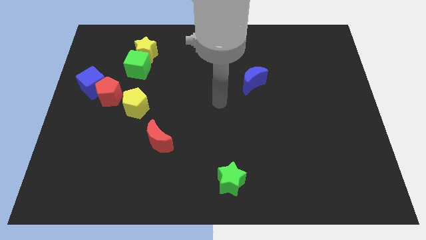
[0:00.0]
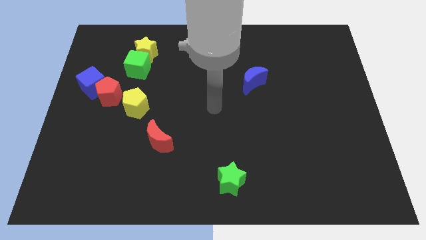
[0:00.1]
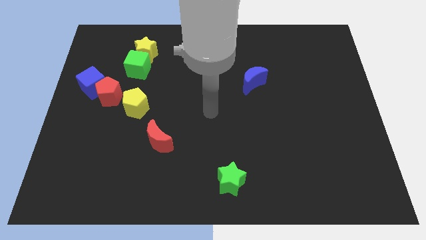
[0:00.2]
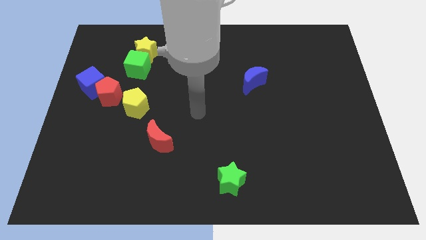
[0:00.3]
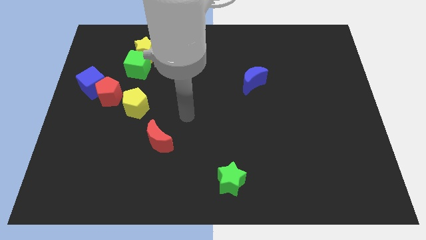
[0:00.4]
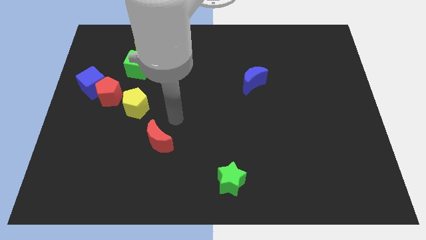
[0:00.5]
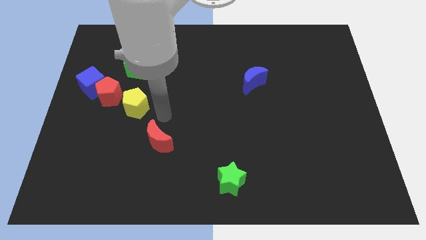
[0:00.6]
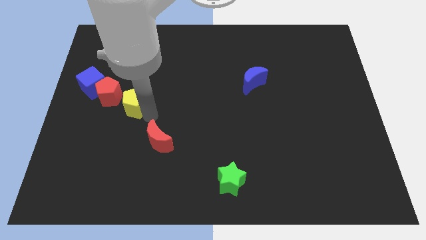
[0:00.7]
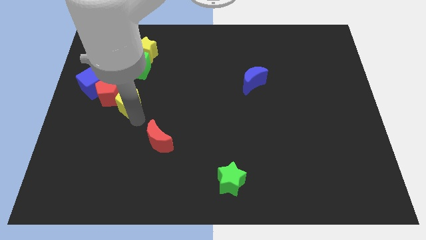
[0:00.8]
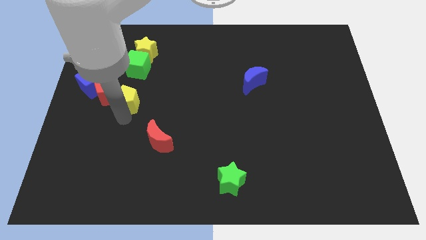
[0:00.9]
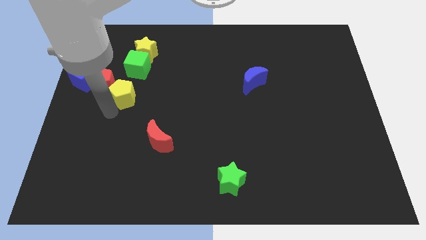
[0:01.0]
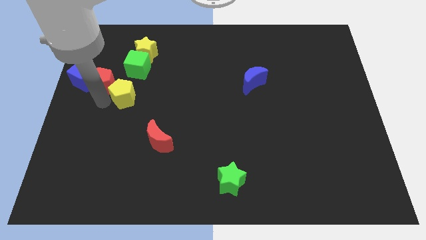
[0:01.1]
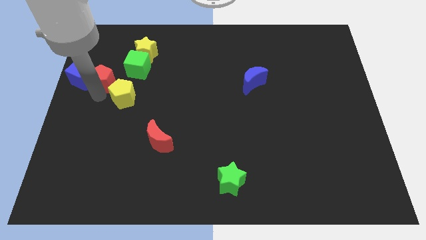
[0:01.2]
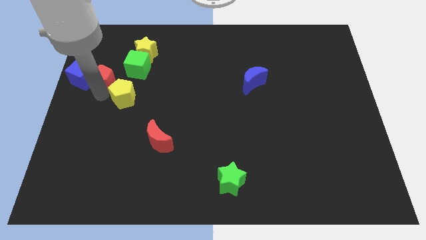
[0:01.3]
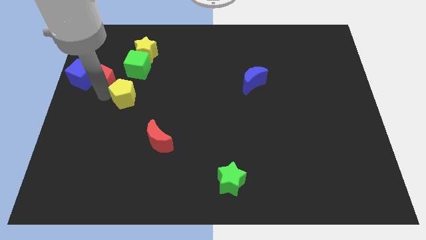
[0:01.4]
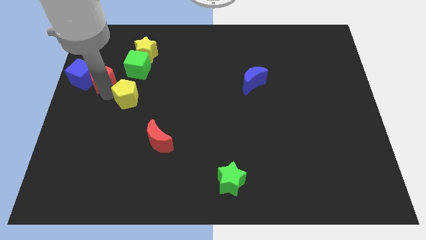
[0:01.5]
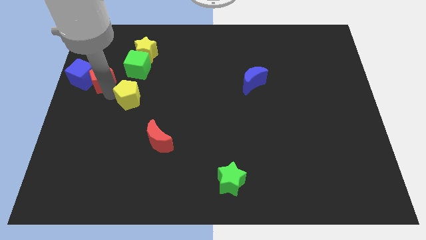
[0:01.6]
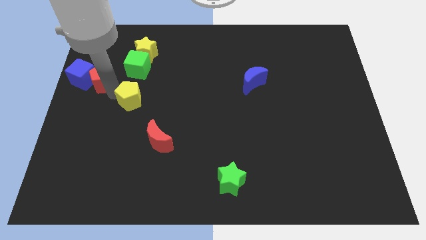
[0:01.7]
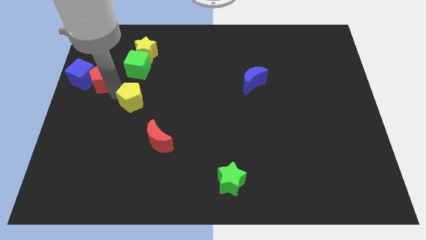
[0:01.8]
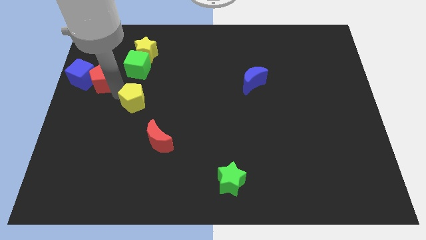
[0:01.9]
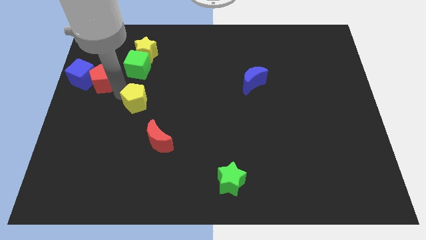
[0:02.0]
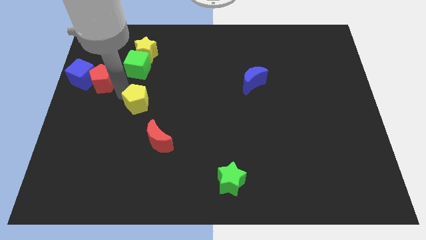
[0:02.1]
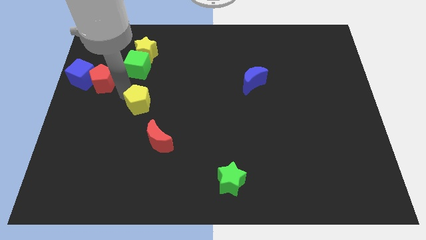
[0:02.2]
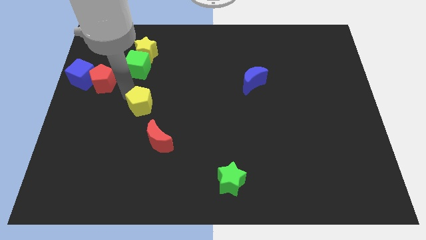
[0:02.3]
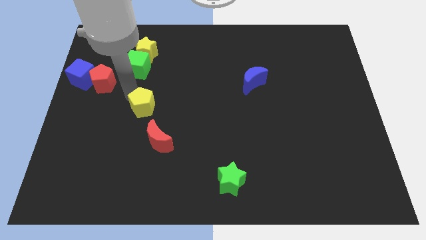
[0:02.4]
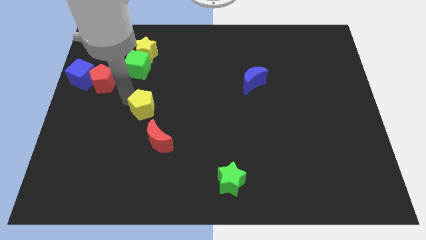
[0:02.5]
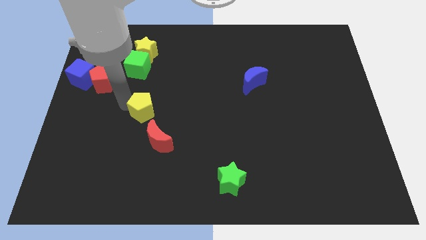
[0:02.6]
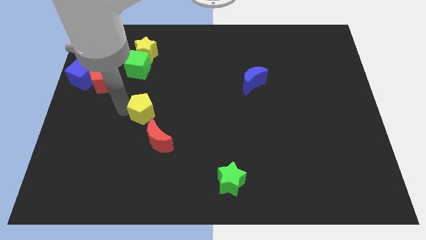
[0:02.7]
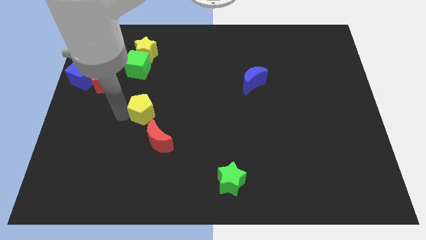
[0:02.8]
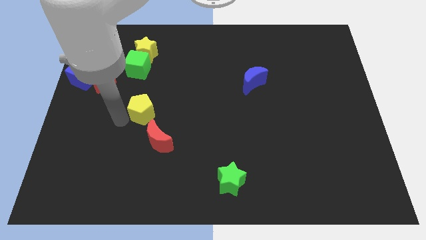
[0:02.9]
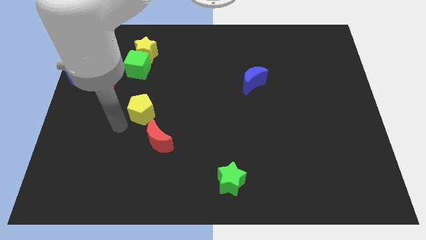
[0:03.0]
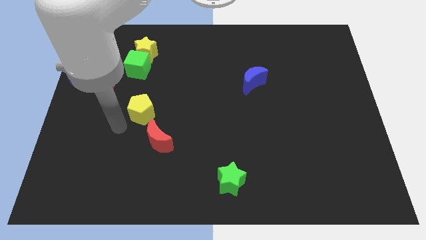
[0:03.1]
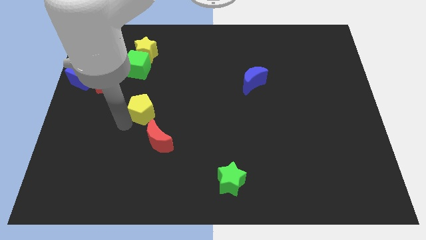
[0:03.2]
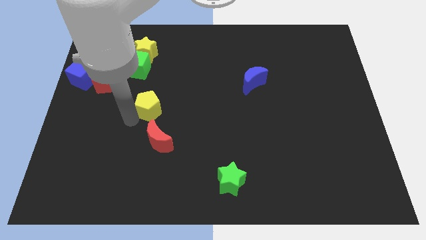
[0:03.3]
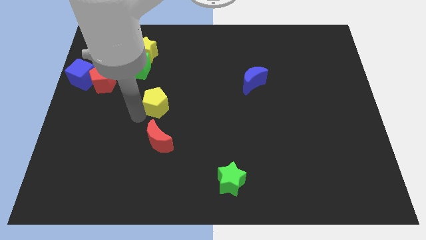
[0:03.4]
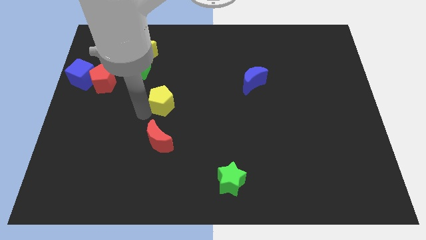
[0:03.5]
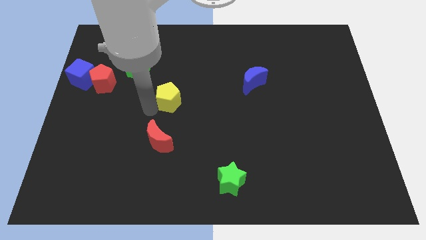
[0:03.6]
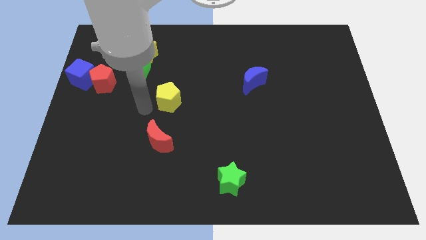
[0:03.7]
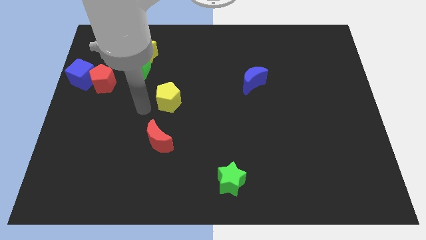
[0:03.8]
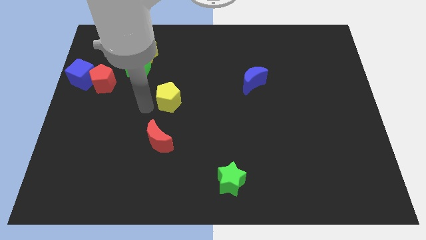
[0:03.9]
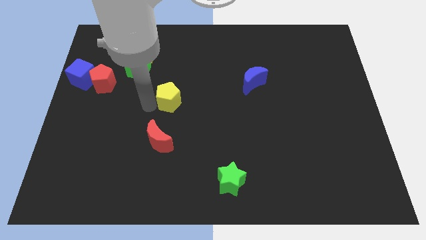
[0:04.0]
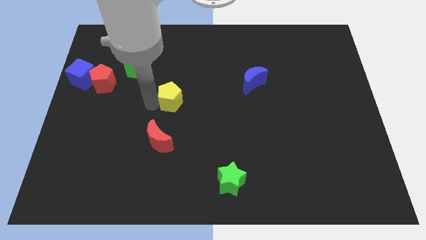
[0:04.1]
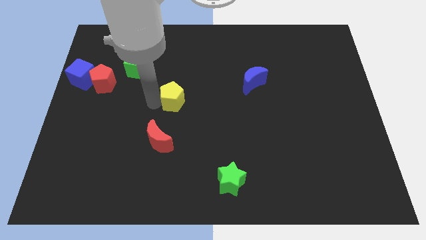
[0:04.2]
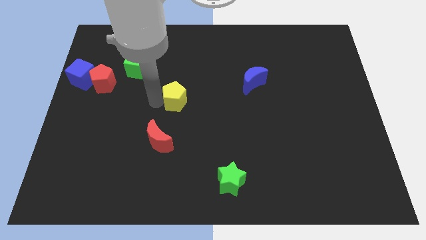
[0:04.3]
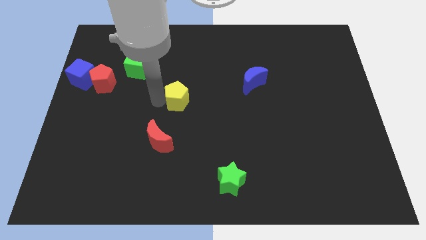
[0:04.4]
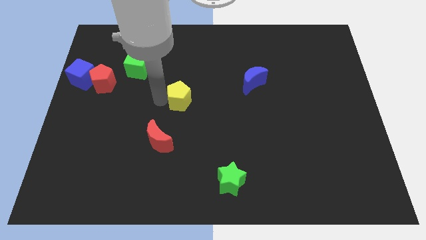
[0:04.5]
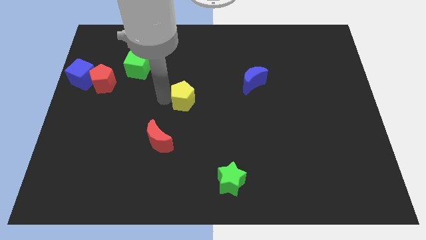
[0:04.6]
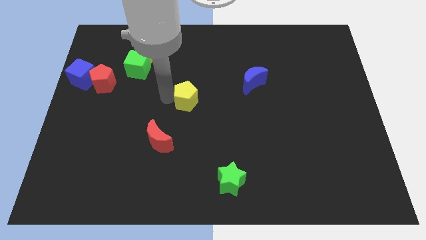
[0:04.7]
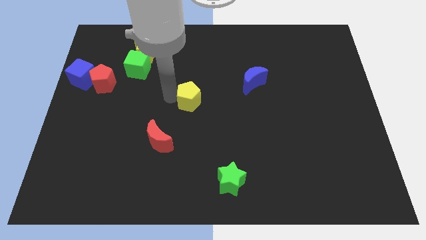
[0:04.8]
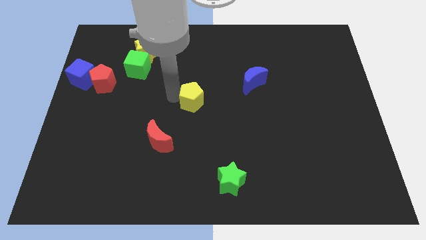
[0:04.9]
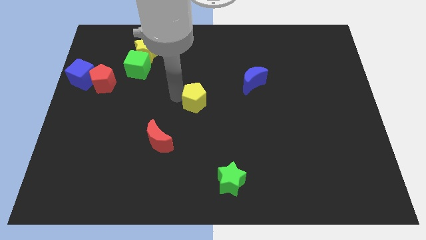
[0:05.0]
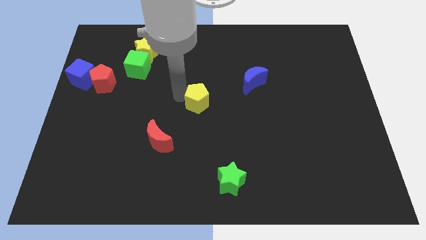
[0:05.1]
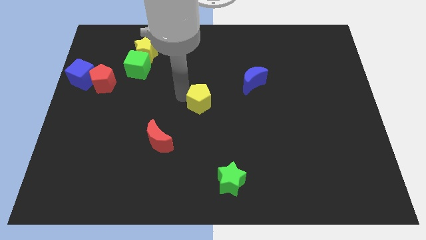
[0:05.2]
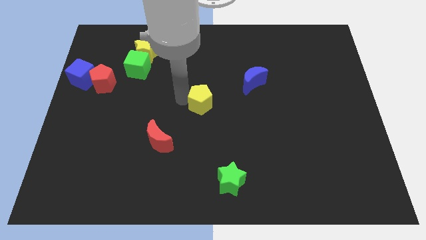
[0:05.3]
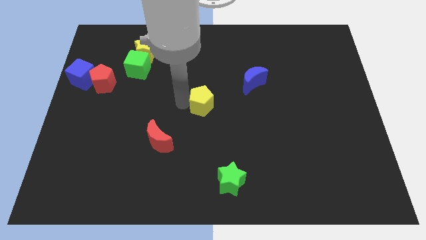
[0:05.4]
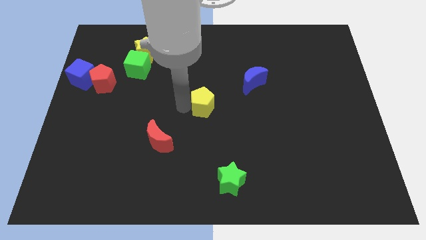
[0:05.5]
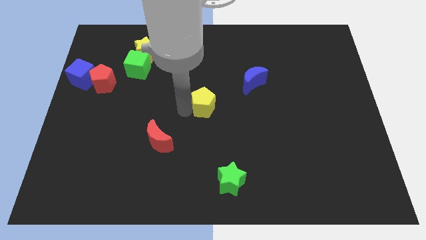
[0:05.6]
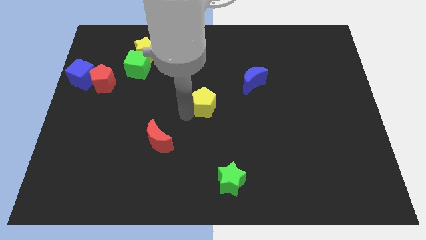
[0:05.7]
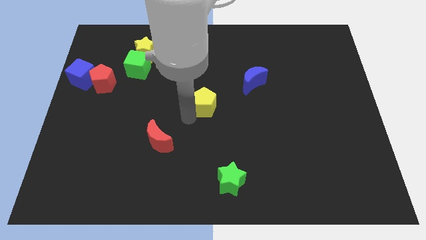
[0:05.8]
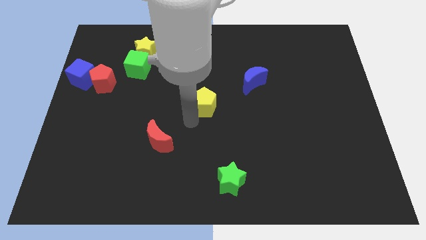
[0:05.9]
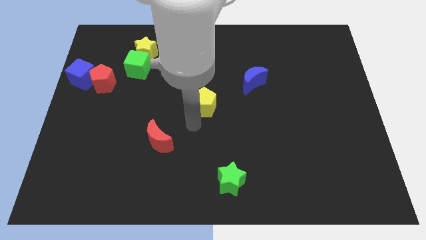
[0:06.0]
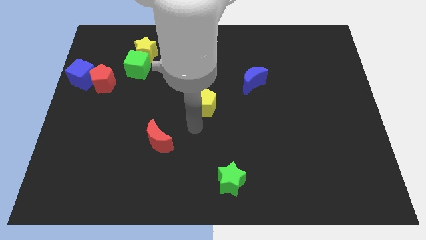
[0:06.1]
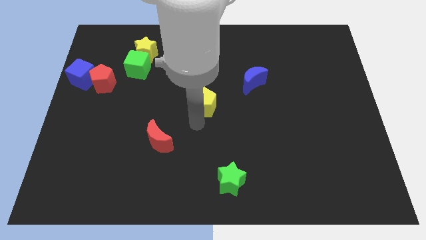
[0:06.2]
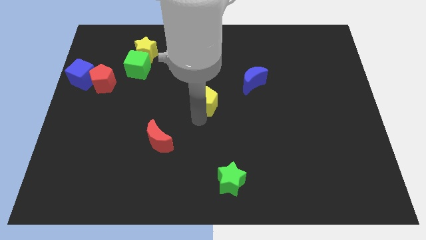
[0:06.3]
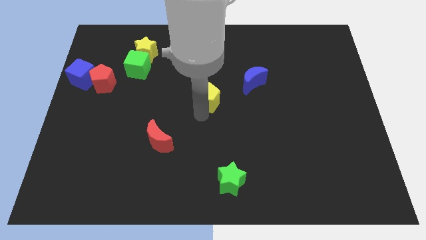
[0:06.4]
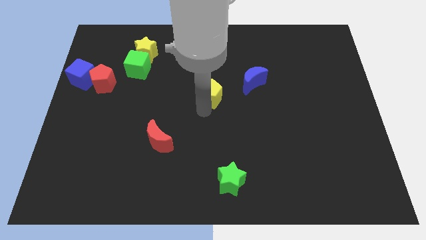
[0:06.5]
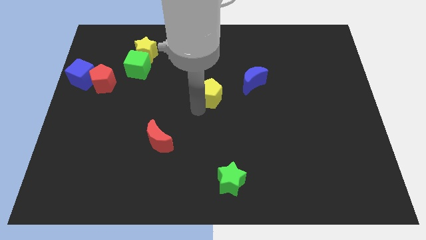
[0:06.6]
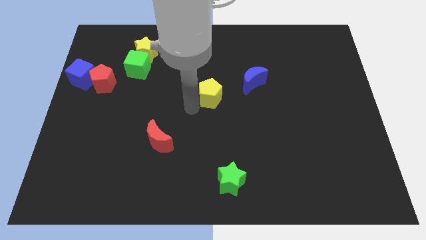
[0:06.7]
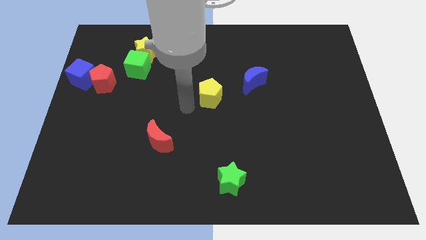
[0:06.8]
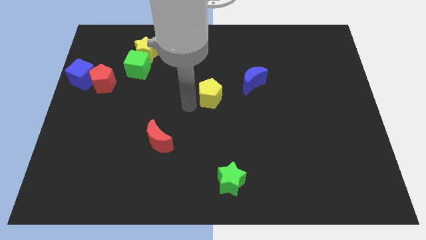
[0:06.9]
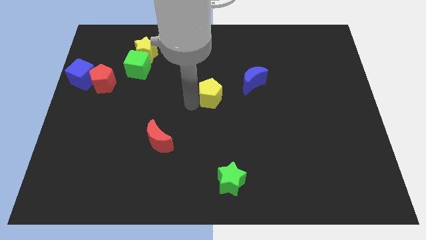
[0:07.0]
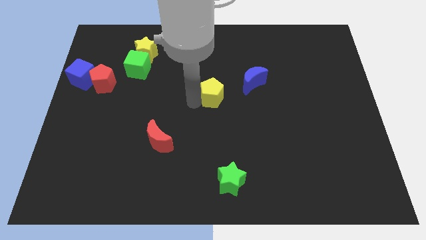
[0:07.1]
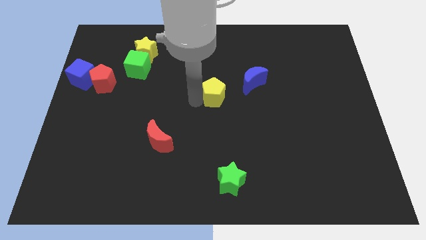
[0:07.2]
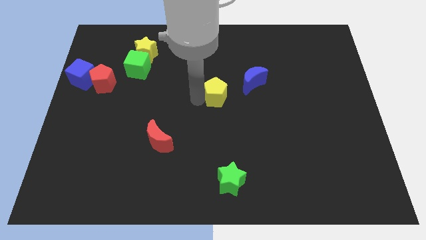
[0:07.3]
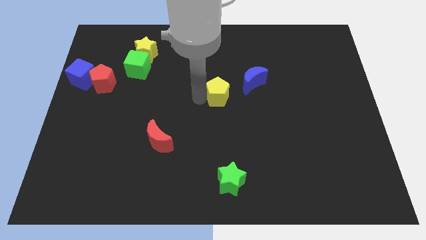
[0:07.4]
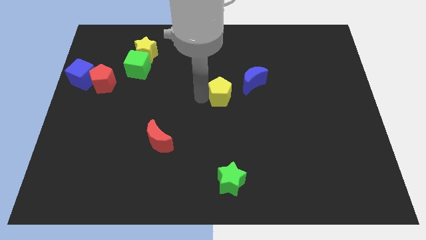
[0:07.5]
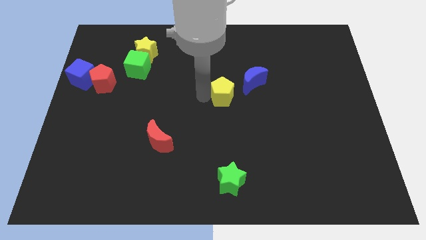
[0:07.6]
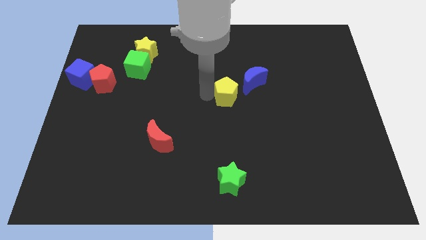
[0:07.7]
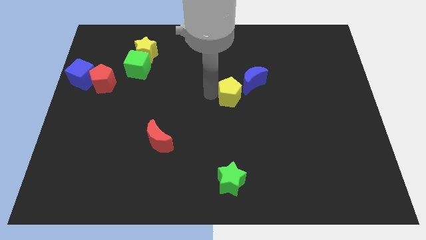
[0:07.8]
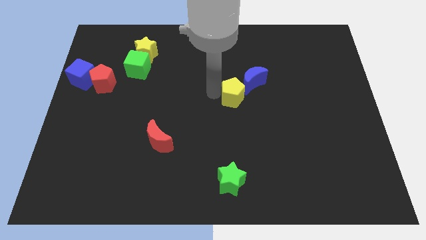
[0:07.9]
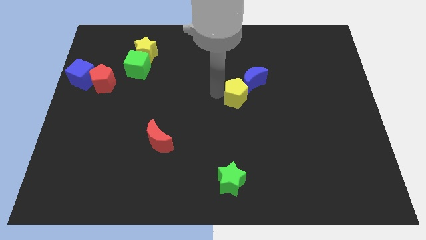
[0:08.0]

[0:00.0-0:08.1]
move the yellow pentagon next to the blue moon
